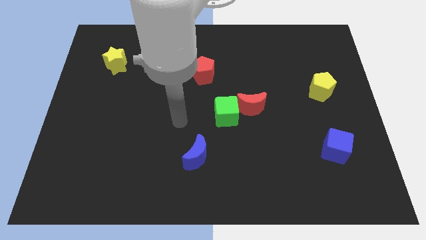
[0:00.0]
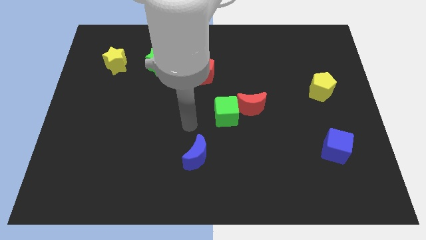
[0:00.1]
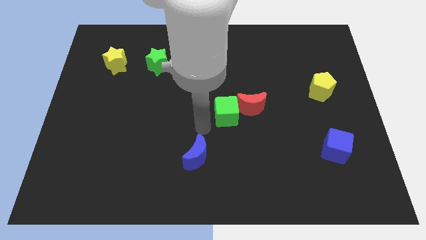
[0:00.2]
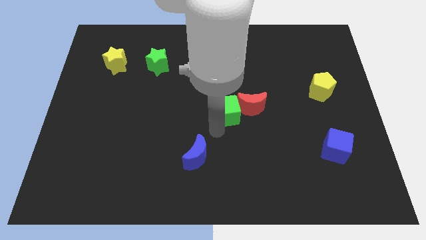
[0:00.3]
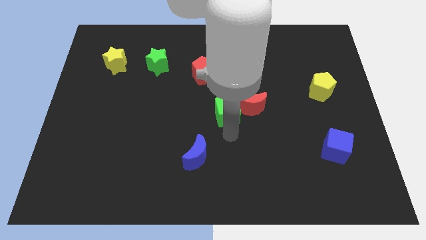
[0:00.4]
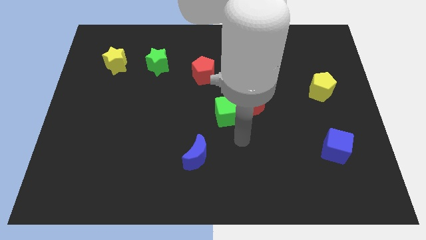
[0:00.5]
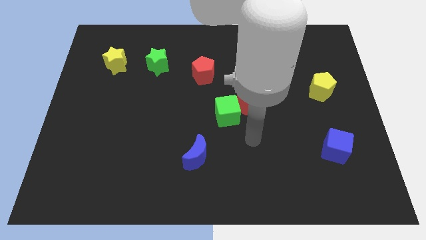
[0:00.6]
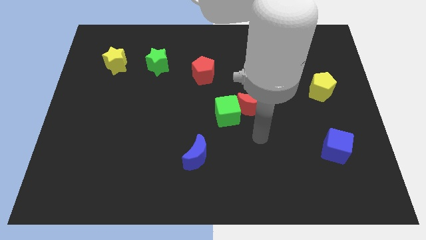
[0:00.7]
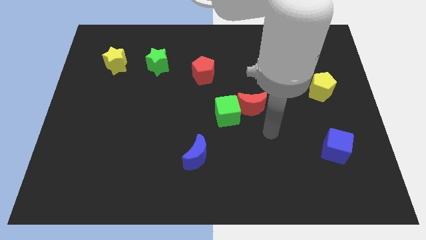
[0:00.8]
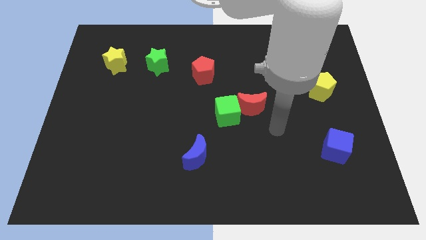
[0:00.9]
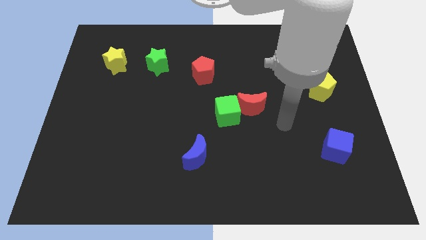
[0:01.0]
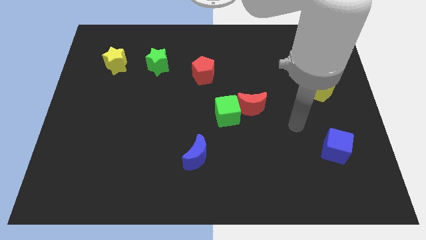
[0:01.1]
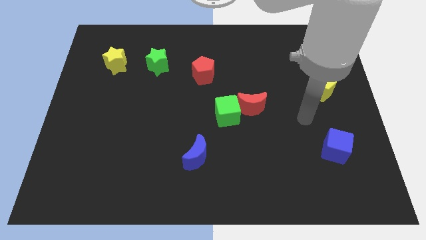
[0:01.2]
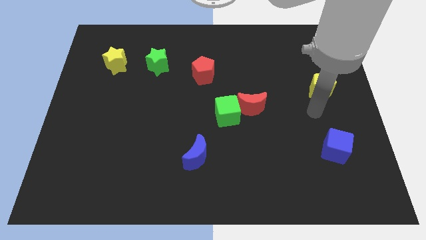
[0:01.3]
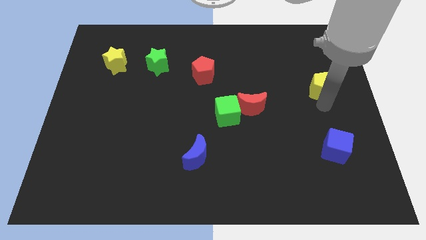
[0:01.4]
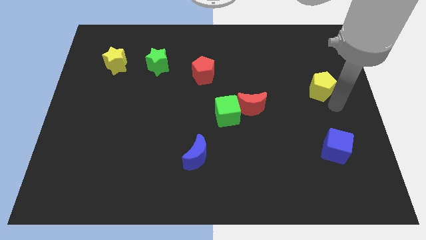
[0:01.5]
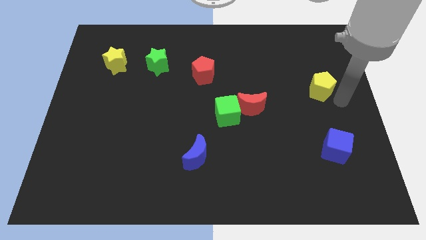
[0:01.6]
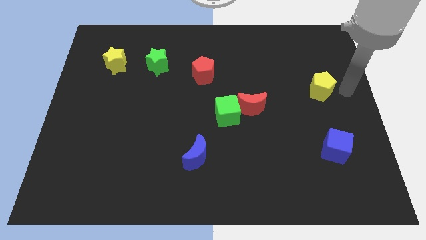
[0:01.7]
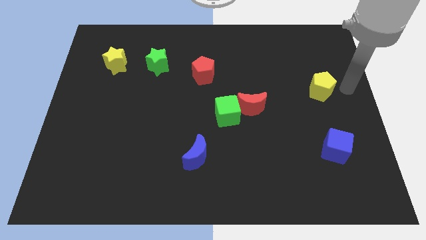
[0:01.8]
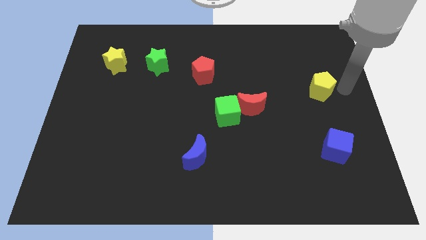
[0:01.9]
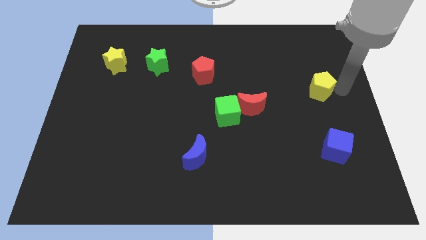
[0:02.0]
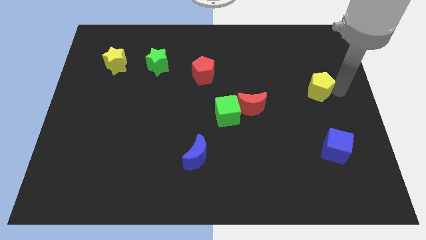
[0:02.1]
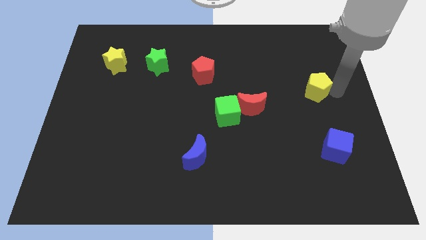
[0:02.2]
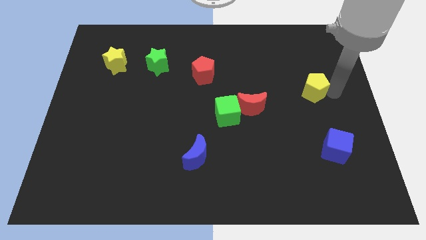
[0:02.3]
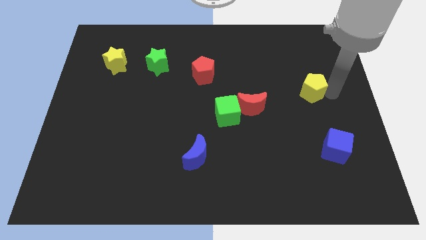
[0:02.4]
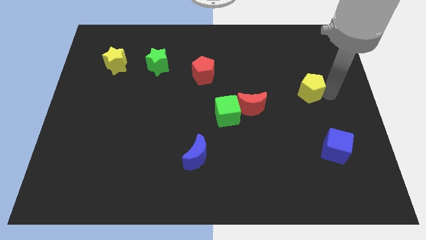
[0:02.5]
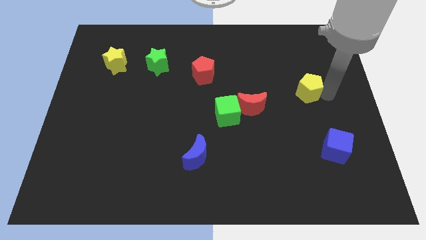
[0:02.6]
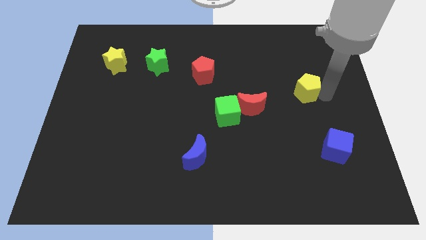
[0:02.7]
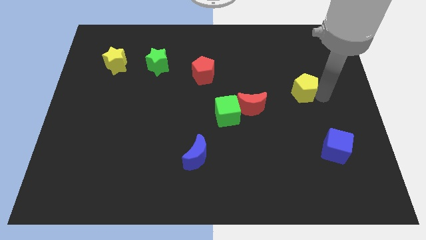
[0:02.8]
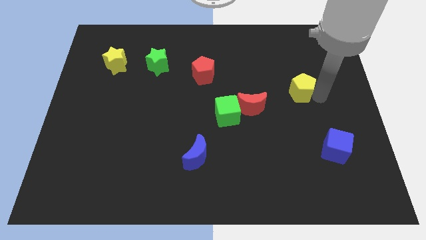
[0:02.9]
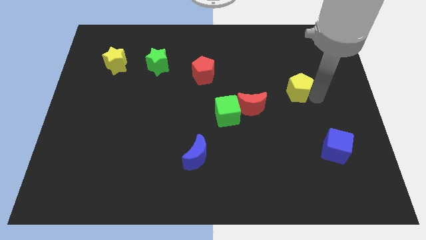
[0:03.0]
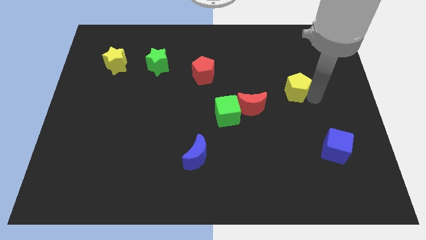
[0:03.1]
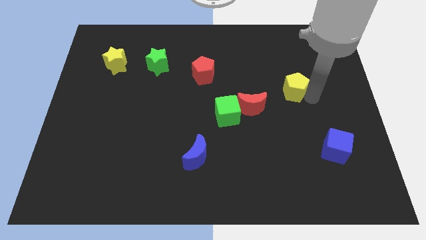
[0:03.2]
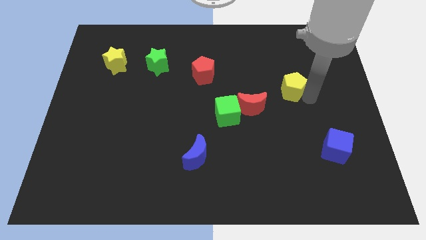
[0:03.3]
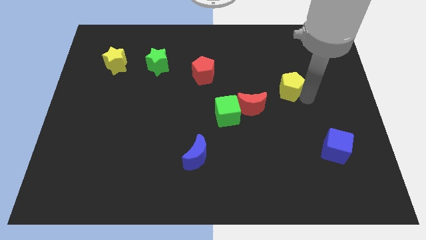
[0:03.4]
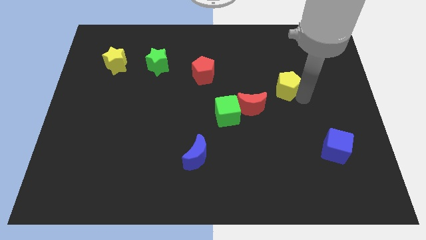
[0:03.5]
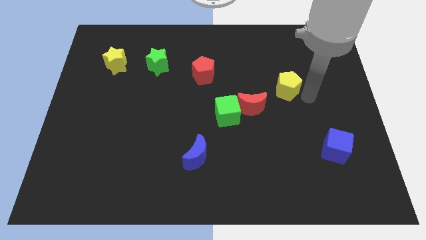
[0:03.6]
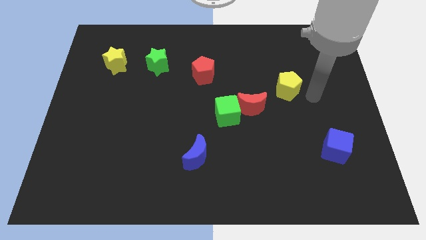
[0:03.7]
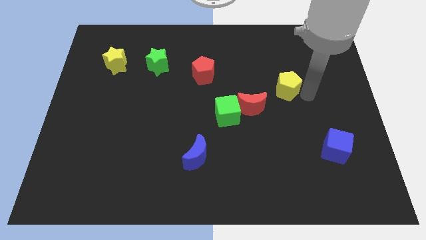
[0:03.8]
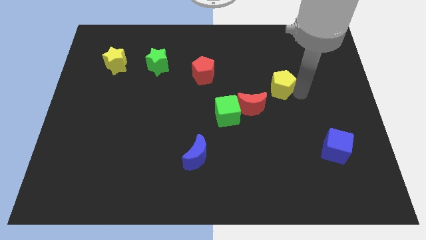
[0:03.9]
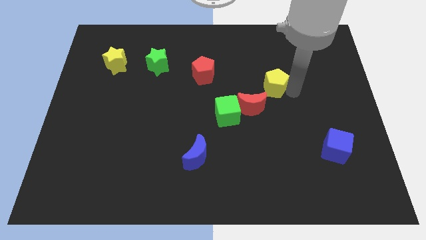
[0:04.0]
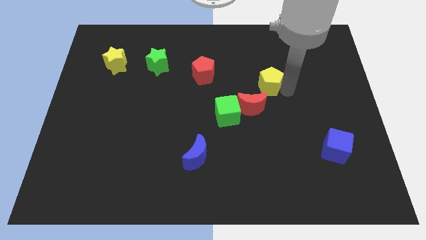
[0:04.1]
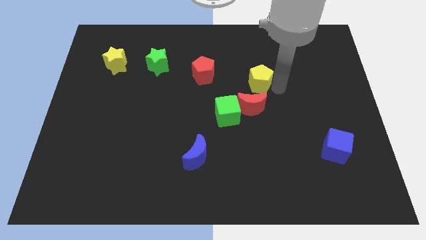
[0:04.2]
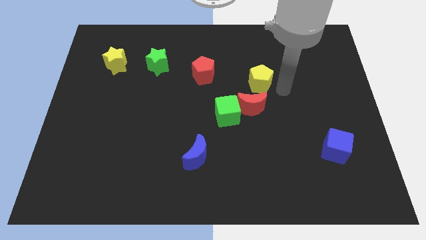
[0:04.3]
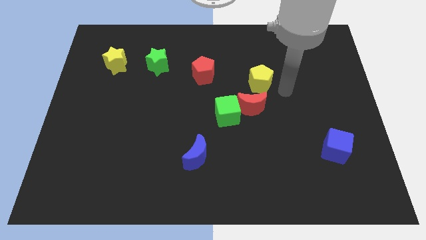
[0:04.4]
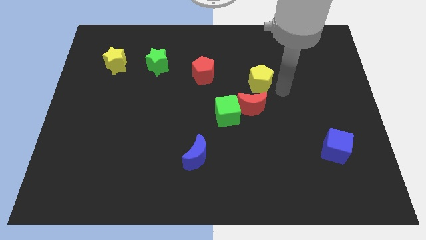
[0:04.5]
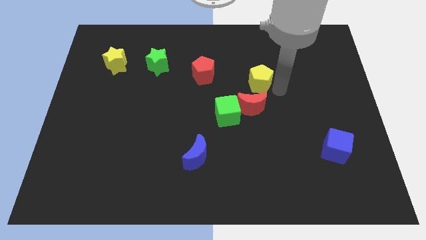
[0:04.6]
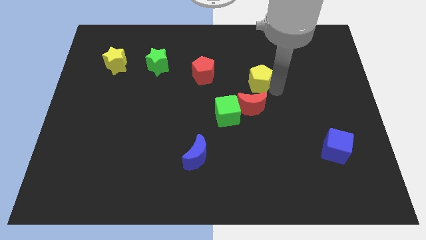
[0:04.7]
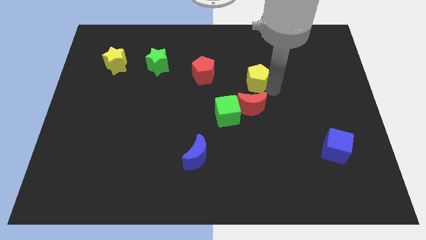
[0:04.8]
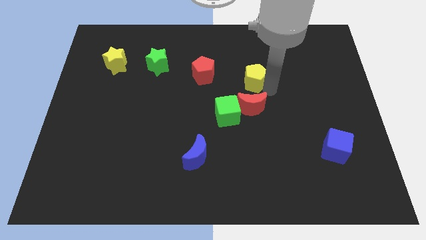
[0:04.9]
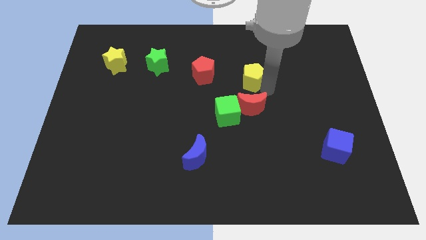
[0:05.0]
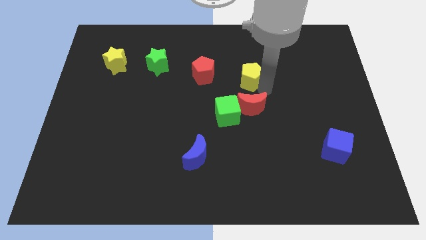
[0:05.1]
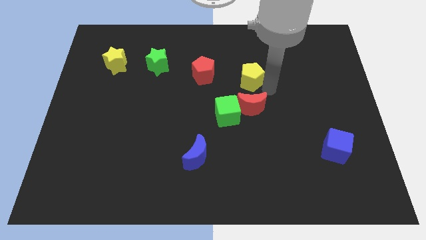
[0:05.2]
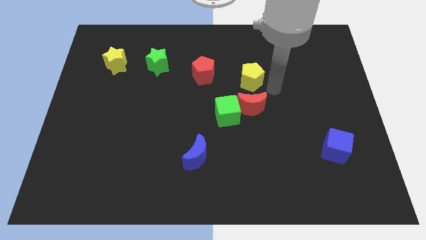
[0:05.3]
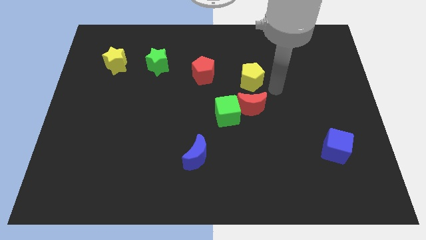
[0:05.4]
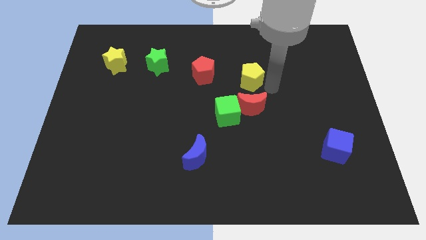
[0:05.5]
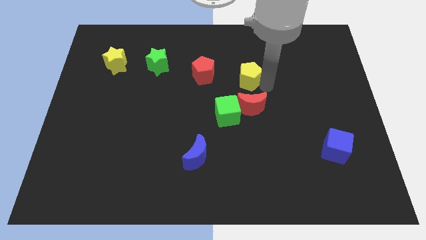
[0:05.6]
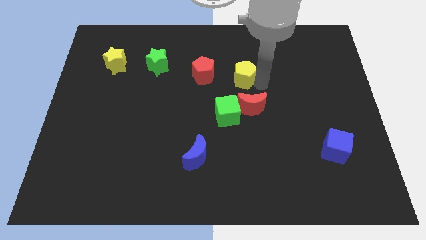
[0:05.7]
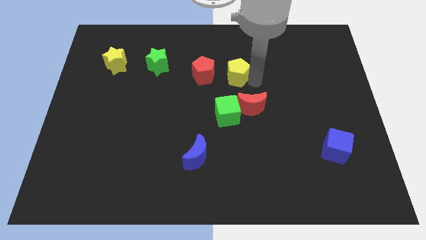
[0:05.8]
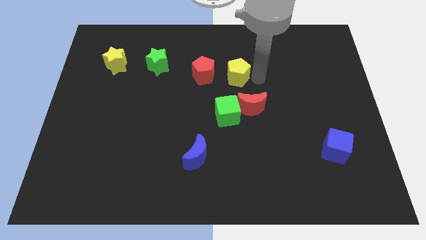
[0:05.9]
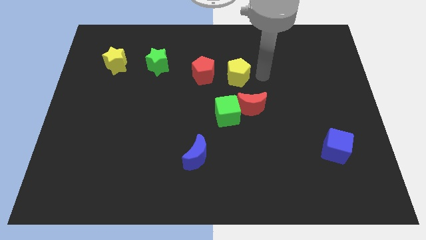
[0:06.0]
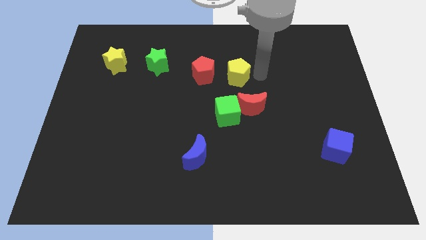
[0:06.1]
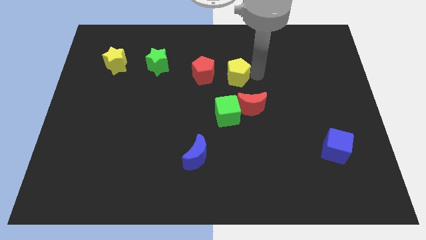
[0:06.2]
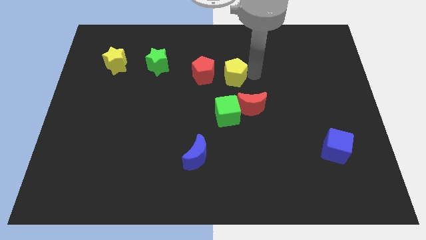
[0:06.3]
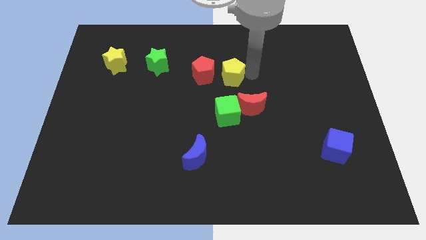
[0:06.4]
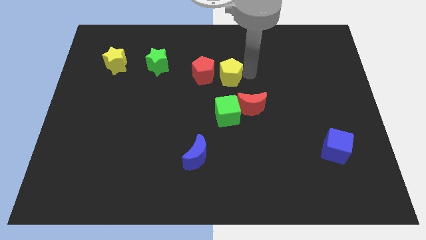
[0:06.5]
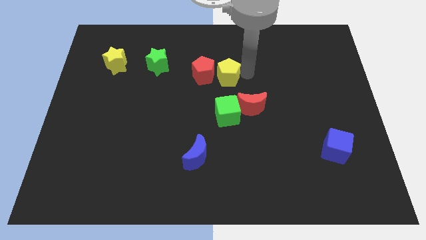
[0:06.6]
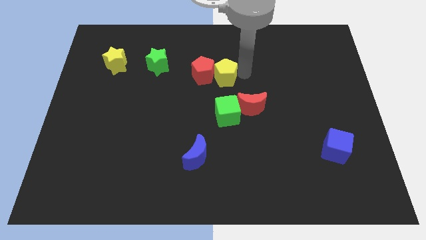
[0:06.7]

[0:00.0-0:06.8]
move the yellow pentagon towards the red pentagon

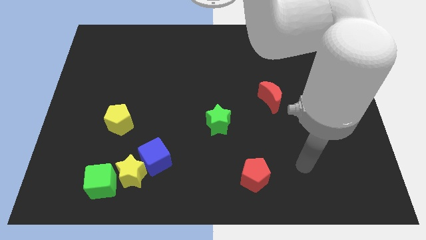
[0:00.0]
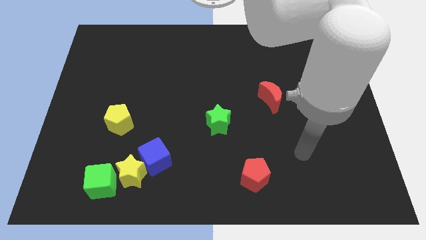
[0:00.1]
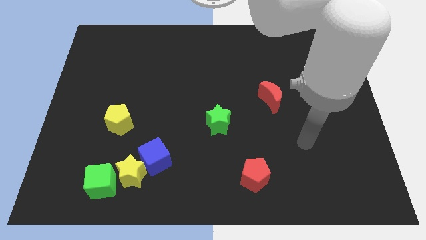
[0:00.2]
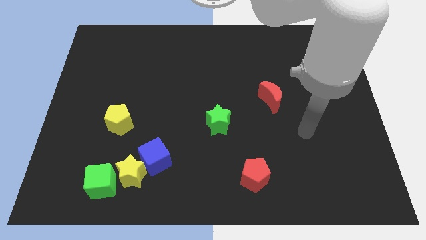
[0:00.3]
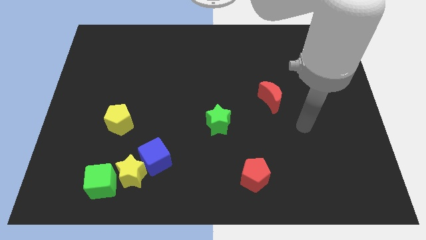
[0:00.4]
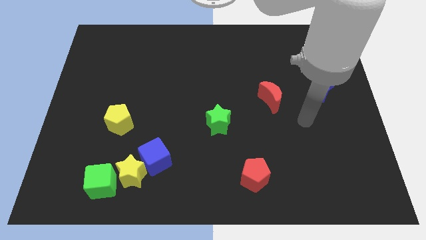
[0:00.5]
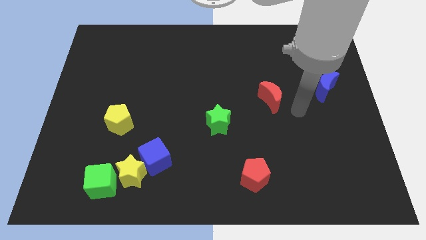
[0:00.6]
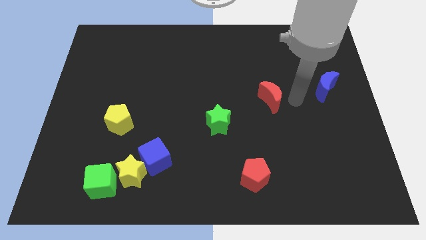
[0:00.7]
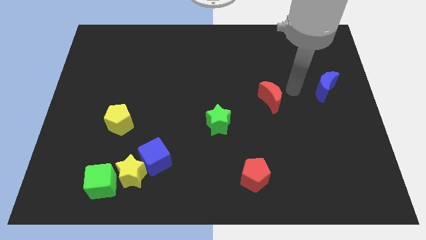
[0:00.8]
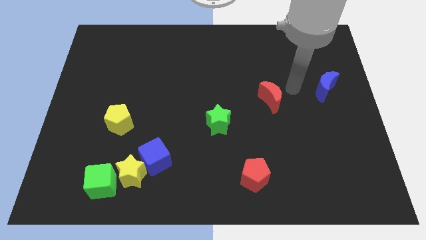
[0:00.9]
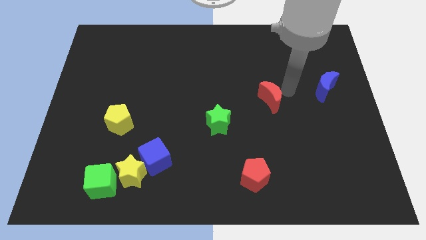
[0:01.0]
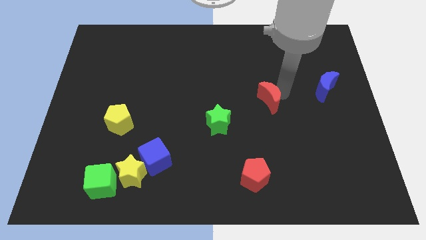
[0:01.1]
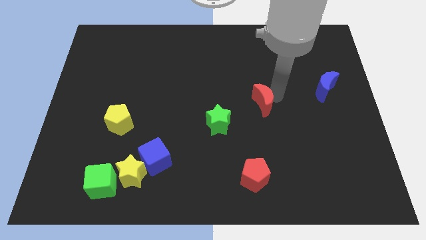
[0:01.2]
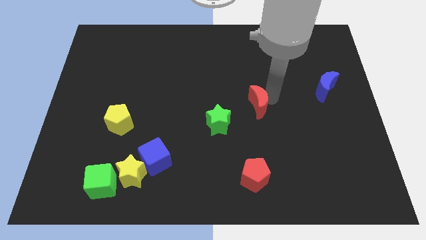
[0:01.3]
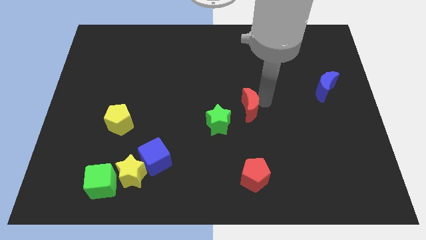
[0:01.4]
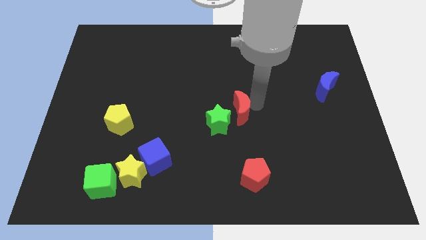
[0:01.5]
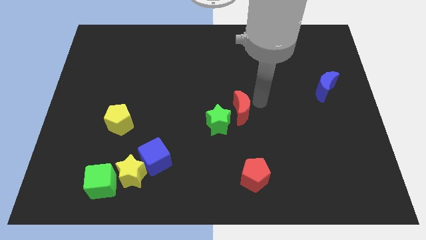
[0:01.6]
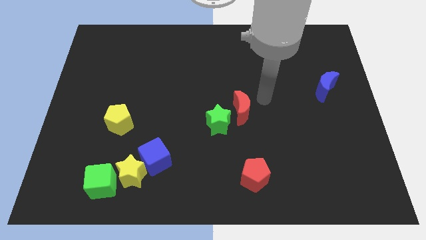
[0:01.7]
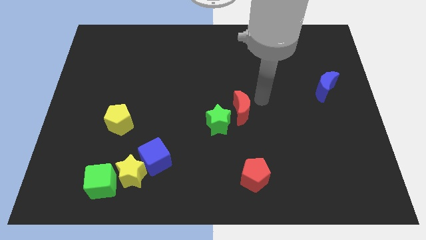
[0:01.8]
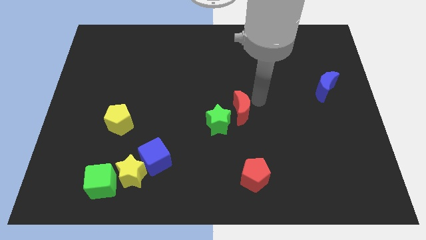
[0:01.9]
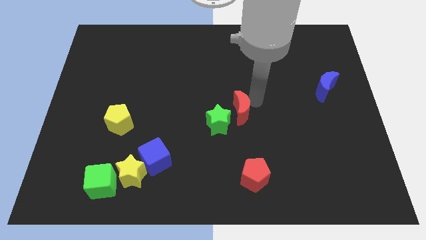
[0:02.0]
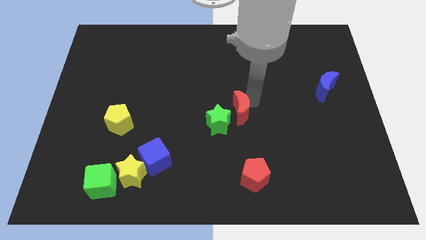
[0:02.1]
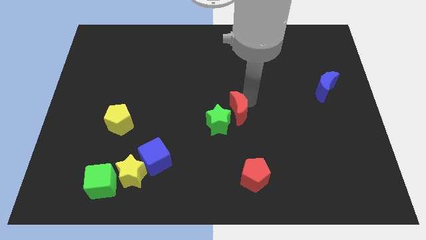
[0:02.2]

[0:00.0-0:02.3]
put the red moon next to the green star
